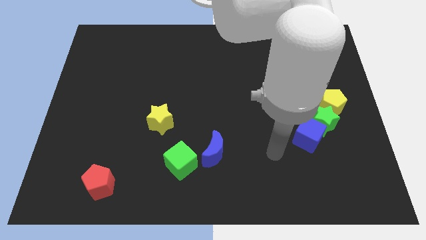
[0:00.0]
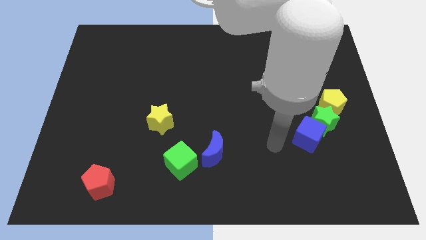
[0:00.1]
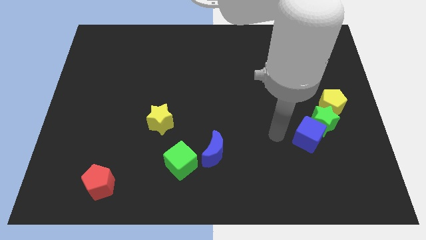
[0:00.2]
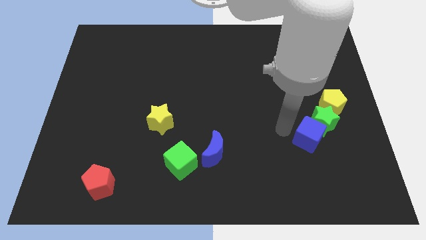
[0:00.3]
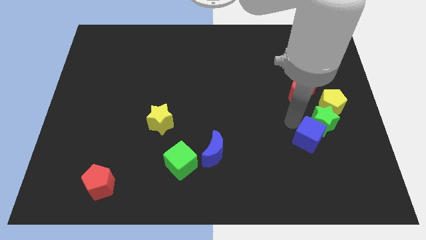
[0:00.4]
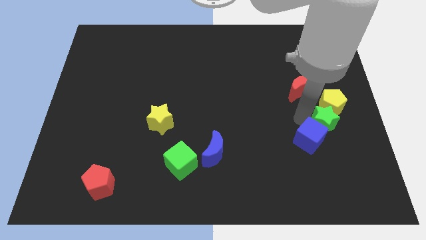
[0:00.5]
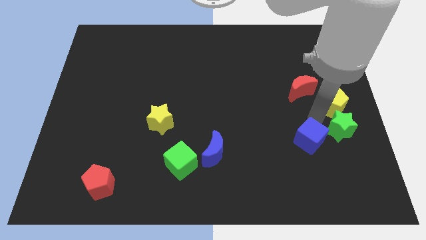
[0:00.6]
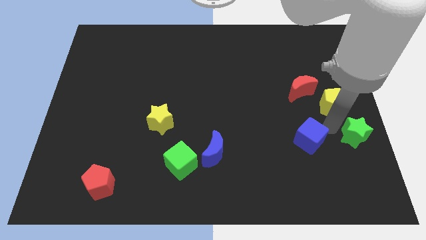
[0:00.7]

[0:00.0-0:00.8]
move the blue cube away from the green star

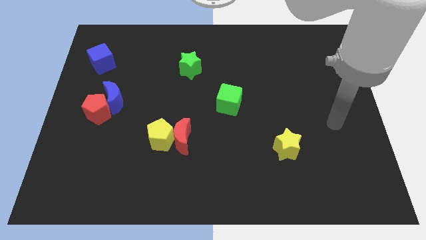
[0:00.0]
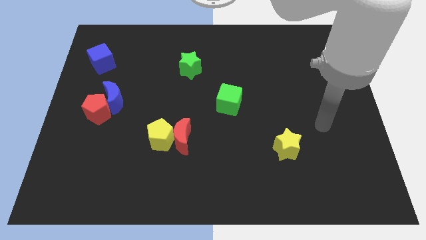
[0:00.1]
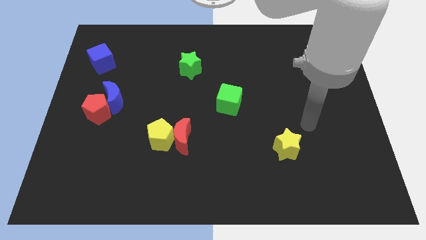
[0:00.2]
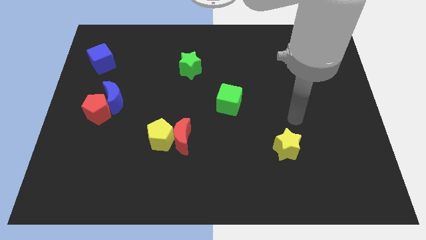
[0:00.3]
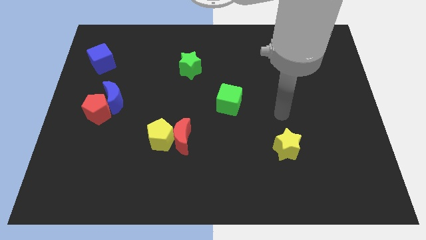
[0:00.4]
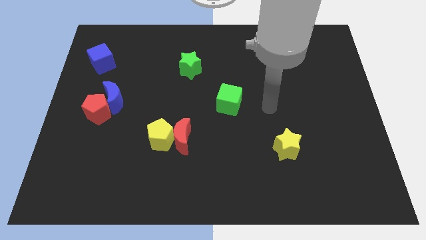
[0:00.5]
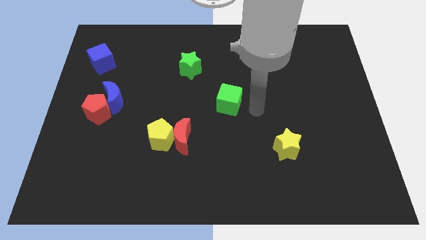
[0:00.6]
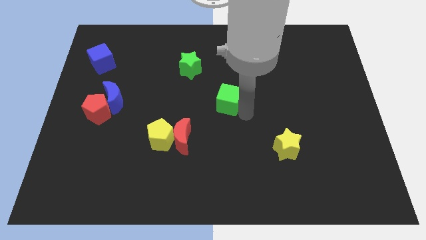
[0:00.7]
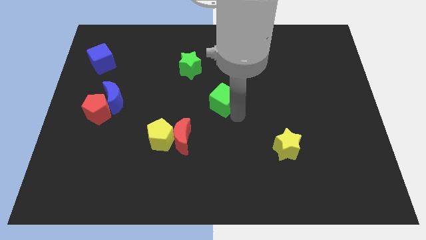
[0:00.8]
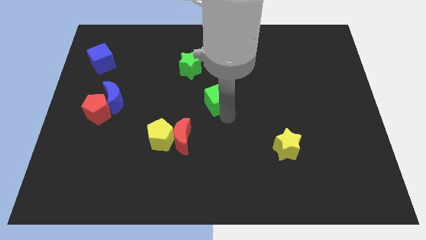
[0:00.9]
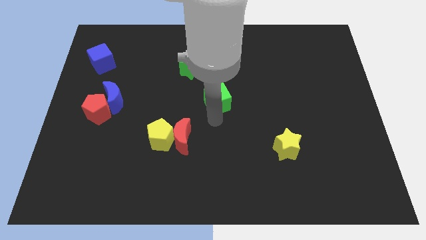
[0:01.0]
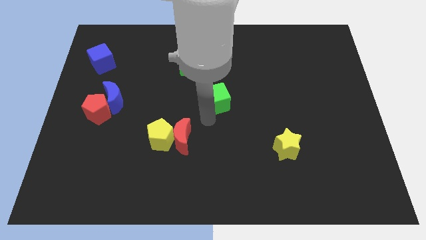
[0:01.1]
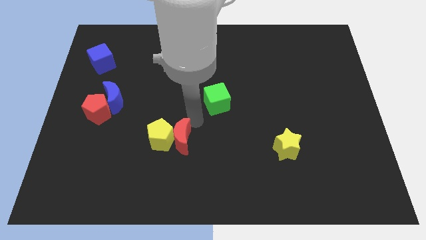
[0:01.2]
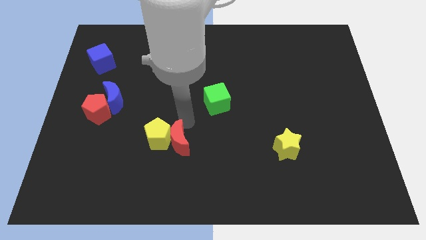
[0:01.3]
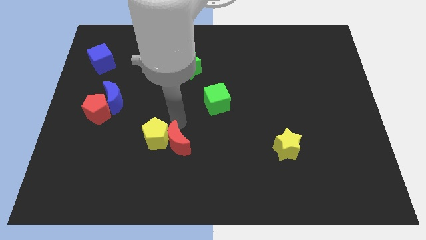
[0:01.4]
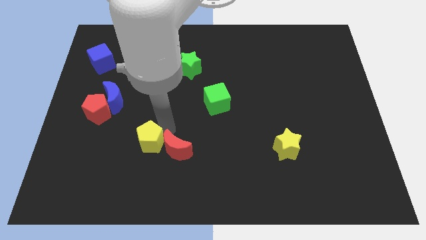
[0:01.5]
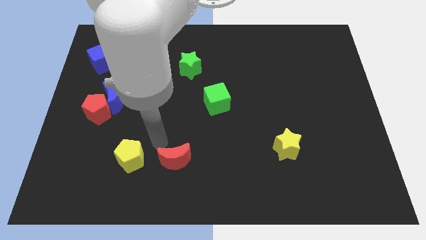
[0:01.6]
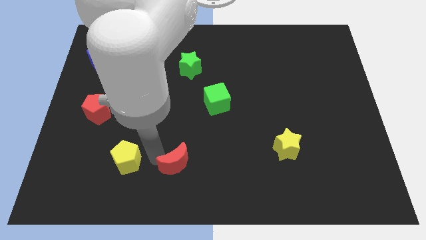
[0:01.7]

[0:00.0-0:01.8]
move the red moon away from the yellow pentagon

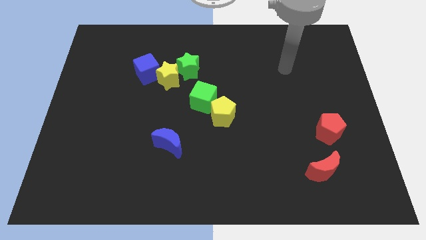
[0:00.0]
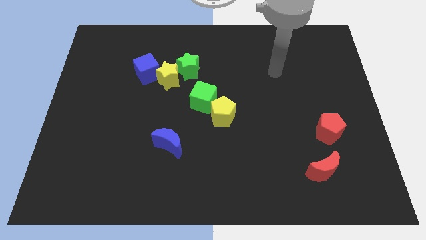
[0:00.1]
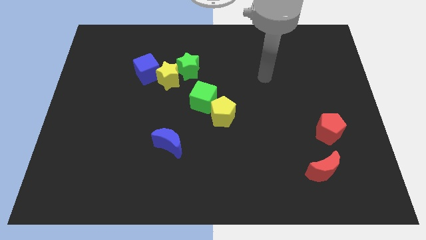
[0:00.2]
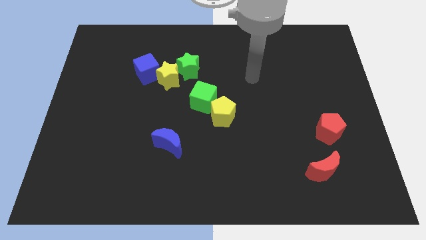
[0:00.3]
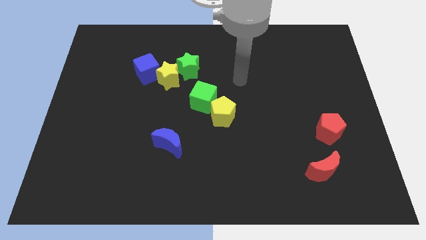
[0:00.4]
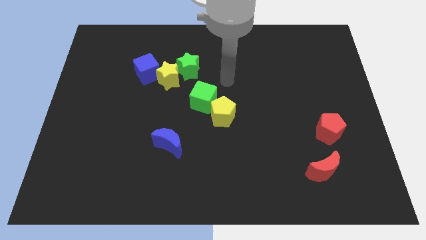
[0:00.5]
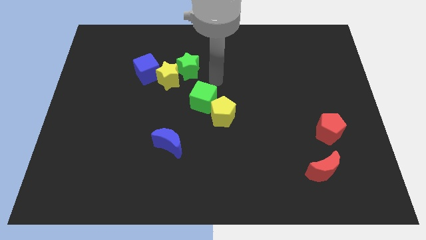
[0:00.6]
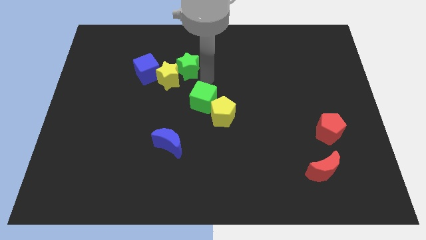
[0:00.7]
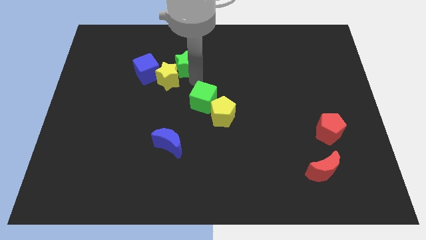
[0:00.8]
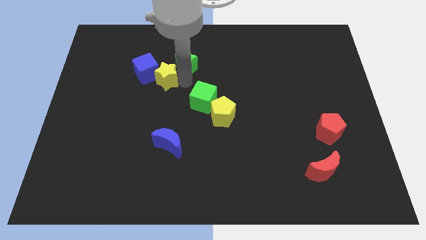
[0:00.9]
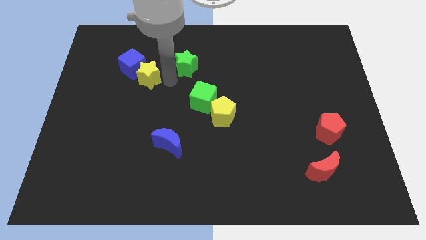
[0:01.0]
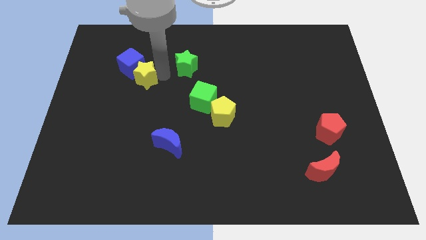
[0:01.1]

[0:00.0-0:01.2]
move the green star away from the yellow star

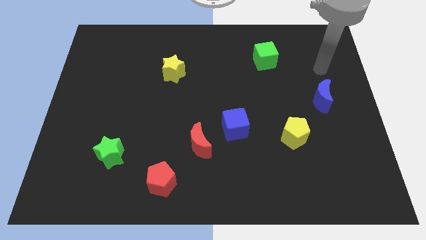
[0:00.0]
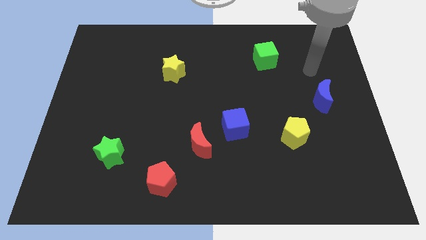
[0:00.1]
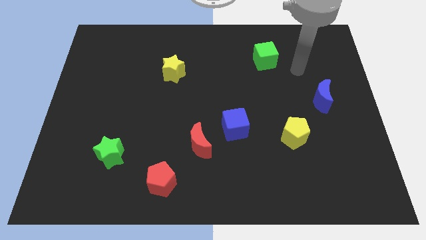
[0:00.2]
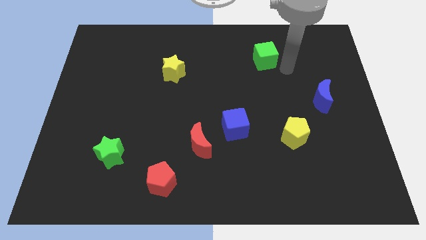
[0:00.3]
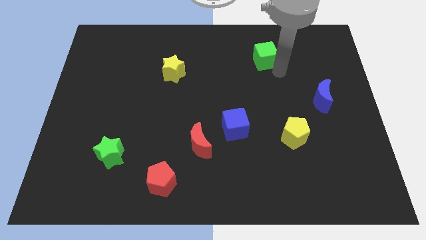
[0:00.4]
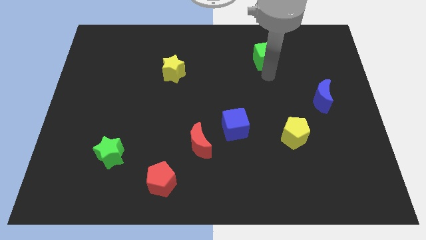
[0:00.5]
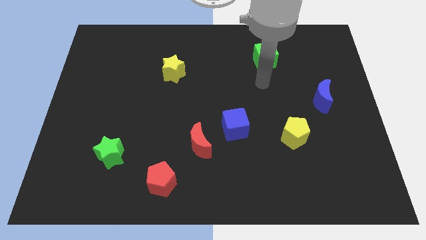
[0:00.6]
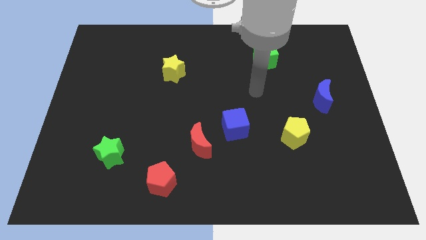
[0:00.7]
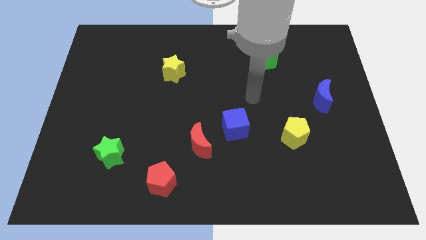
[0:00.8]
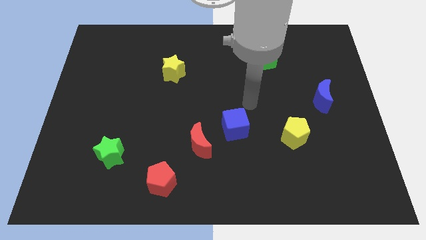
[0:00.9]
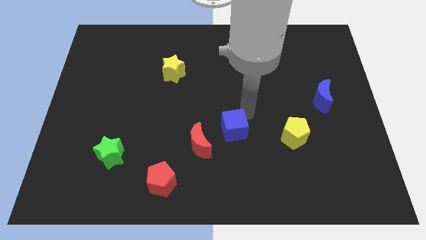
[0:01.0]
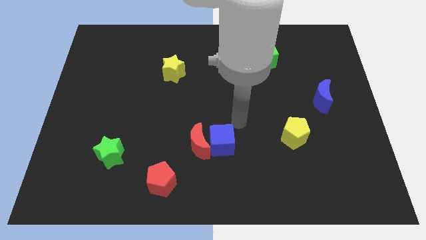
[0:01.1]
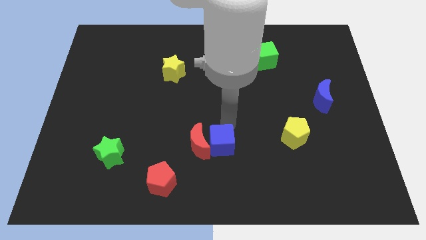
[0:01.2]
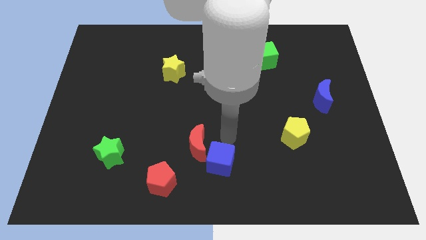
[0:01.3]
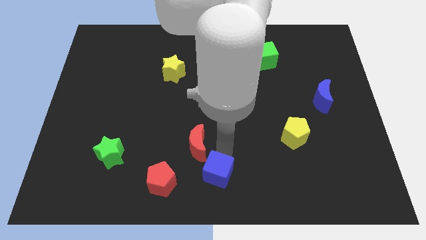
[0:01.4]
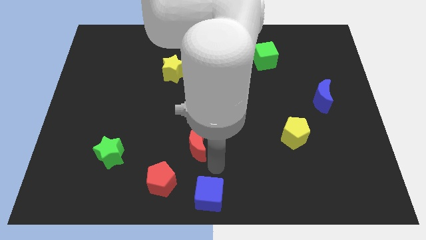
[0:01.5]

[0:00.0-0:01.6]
pull the red moon apart from the blue cube

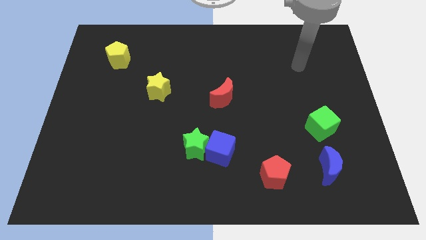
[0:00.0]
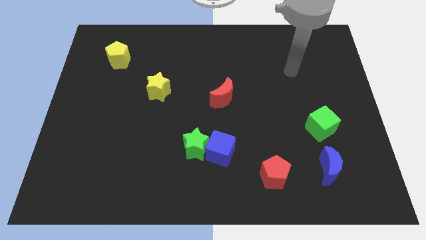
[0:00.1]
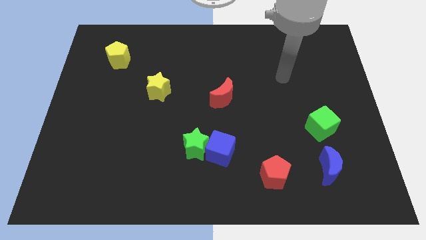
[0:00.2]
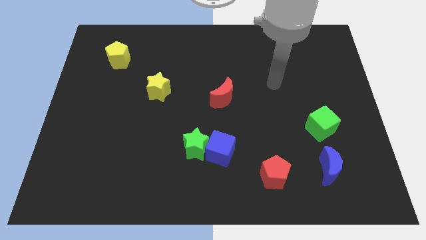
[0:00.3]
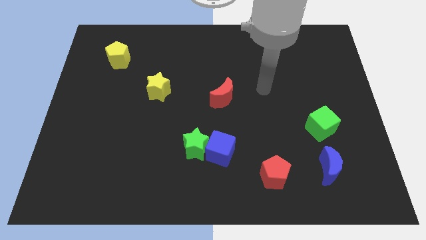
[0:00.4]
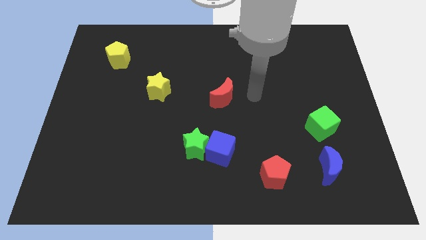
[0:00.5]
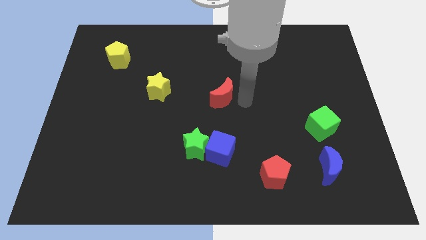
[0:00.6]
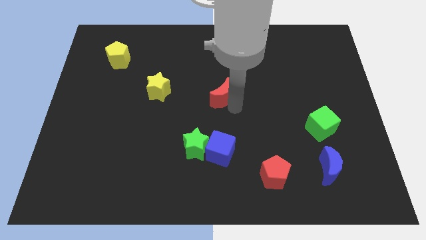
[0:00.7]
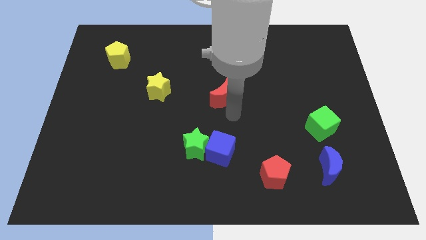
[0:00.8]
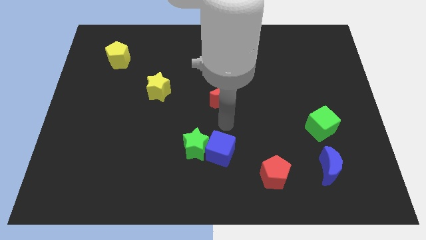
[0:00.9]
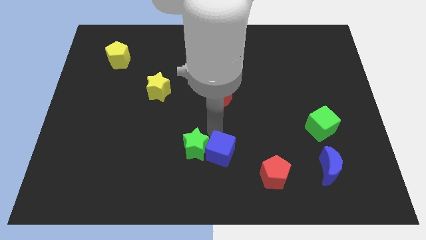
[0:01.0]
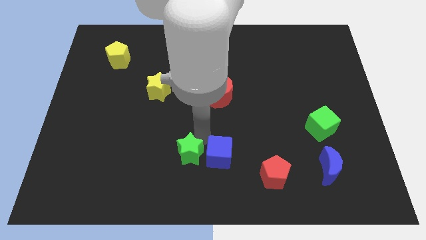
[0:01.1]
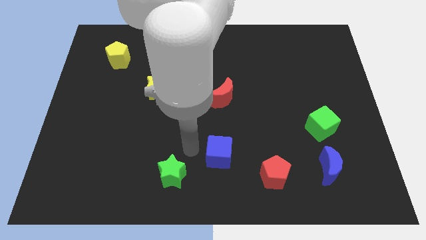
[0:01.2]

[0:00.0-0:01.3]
separate the blue cube from the green star

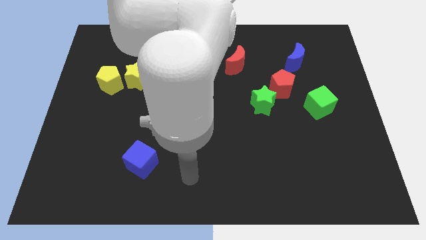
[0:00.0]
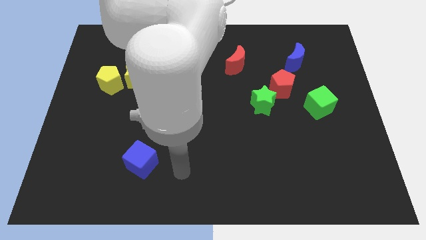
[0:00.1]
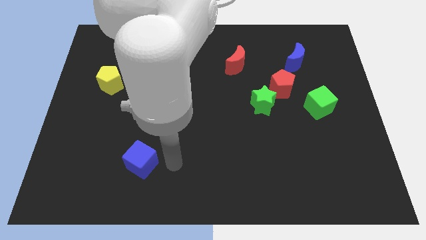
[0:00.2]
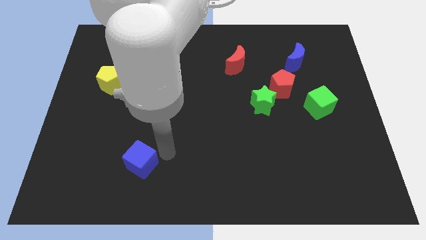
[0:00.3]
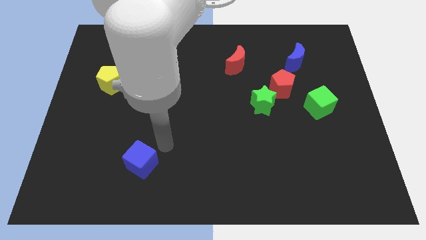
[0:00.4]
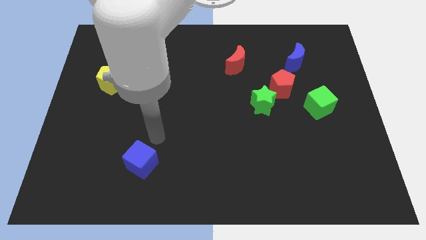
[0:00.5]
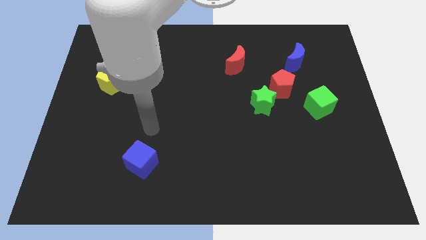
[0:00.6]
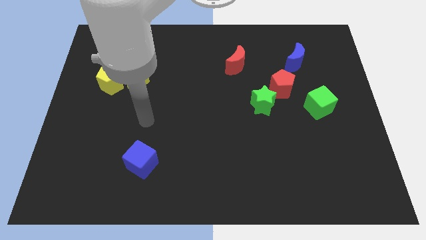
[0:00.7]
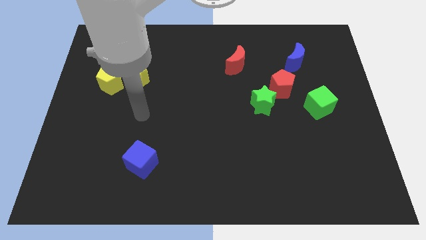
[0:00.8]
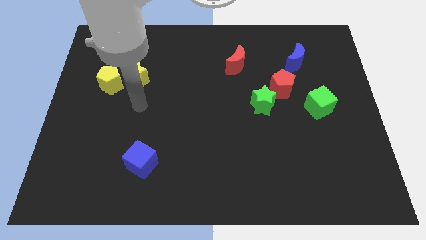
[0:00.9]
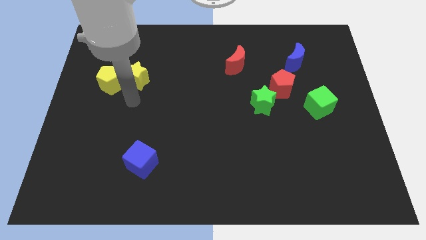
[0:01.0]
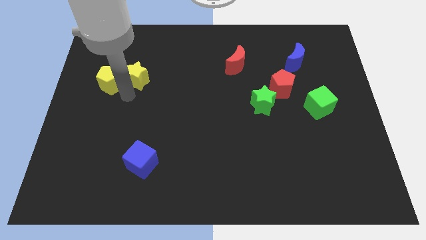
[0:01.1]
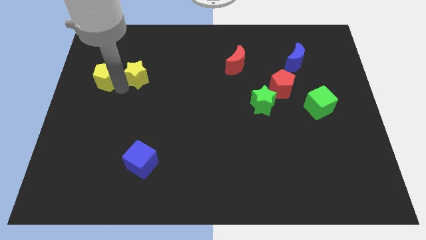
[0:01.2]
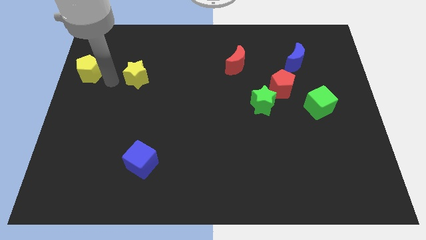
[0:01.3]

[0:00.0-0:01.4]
pull the yellow star apart from the yellow pentagon

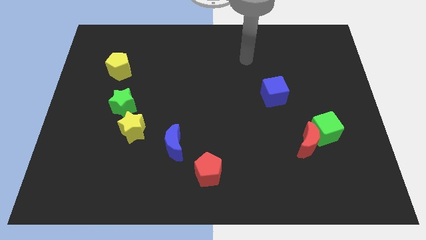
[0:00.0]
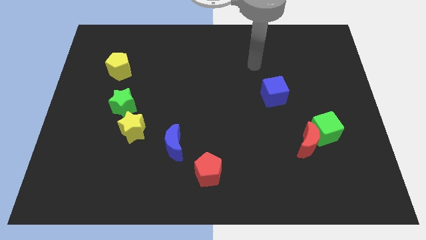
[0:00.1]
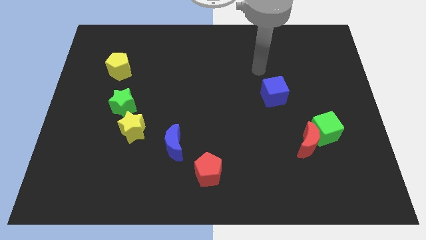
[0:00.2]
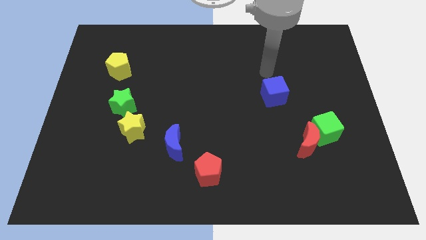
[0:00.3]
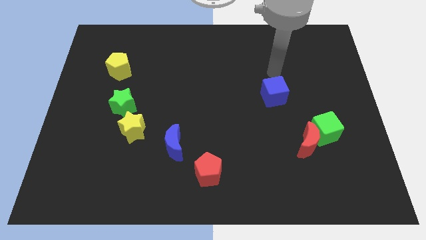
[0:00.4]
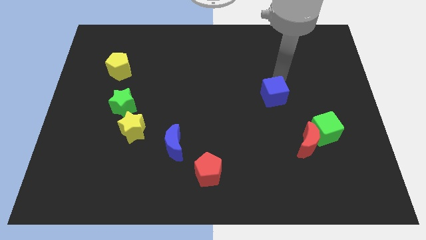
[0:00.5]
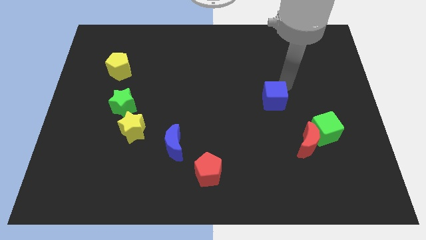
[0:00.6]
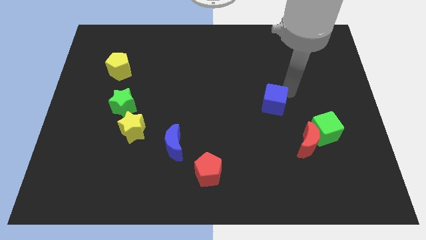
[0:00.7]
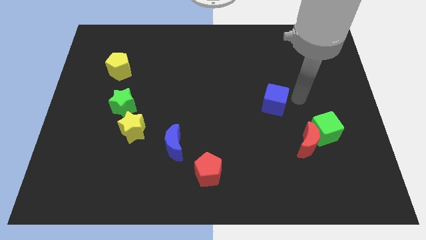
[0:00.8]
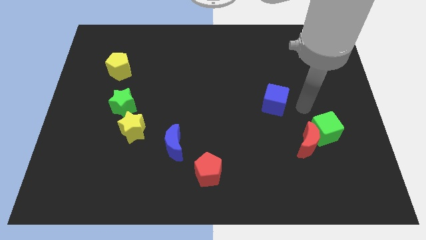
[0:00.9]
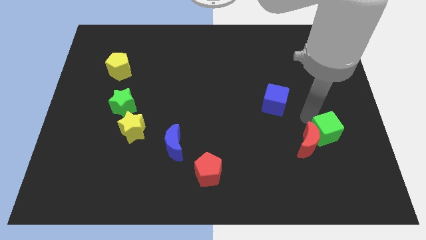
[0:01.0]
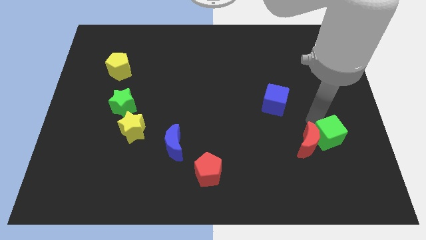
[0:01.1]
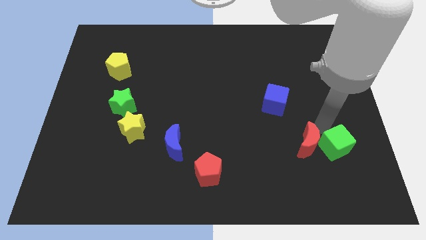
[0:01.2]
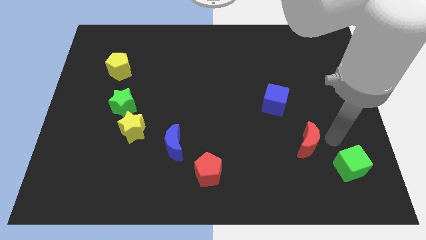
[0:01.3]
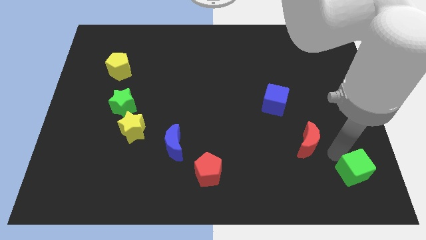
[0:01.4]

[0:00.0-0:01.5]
separate the red moon from the green cube
